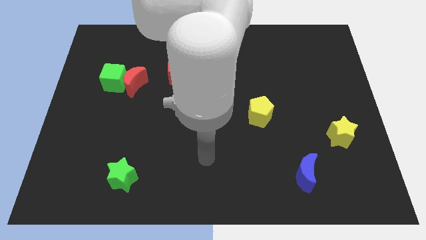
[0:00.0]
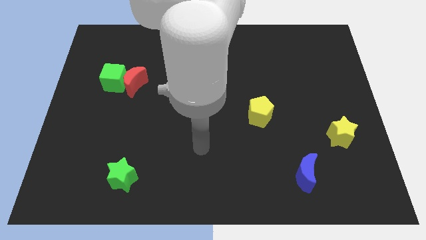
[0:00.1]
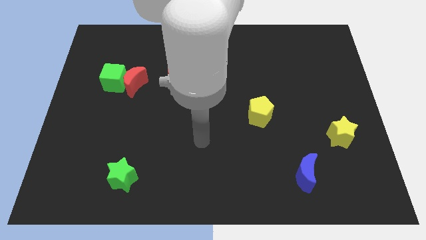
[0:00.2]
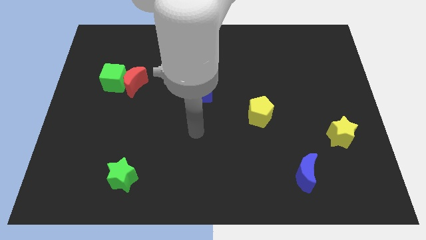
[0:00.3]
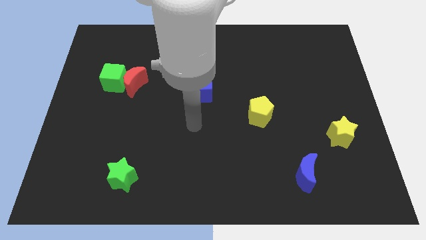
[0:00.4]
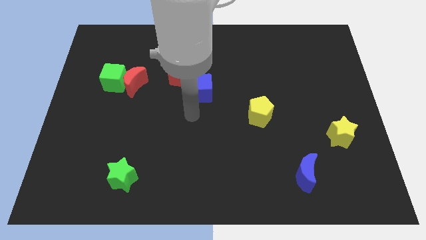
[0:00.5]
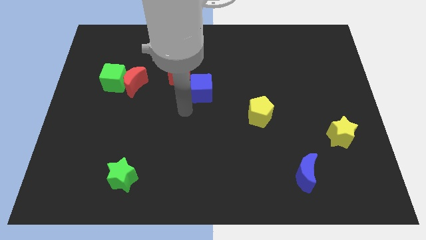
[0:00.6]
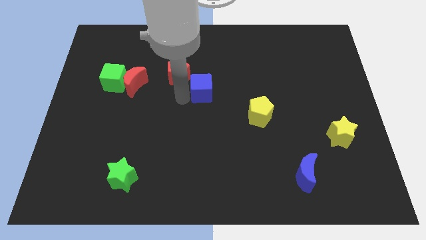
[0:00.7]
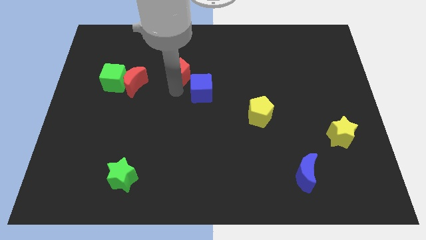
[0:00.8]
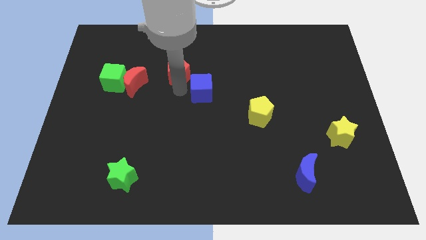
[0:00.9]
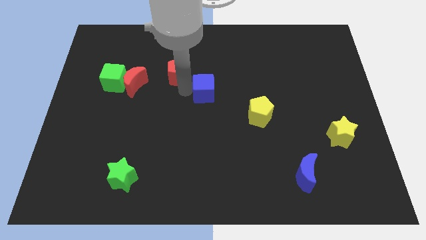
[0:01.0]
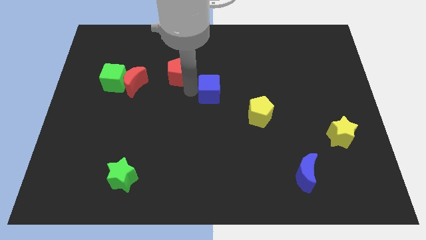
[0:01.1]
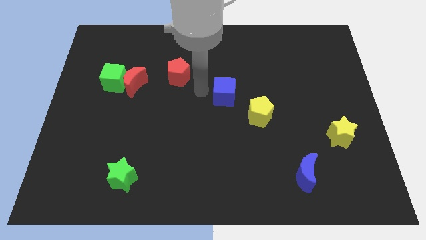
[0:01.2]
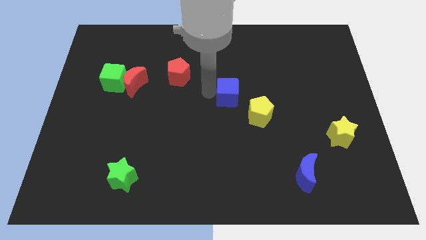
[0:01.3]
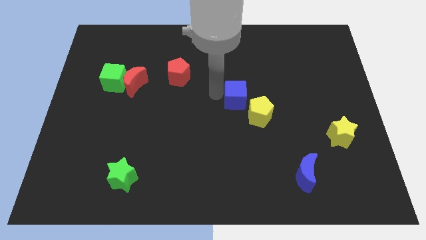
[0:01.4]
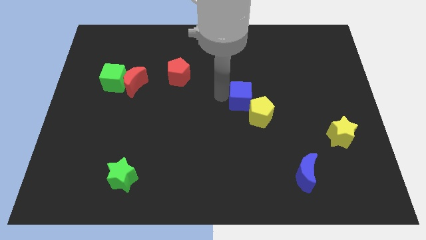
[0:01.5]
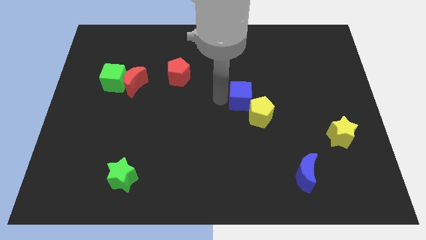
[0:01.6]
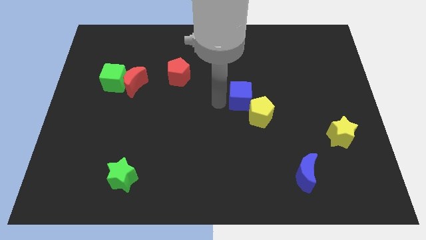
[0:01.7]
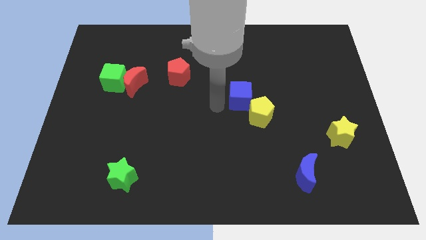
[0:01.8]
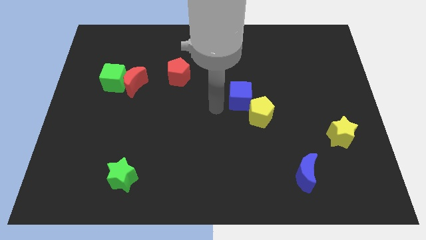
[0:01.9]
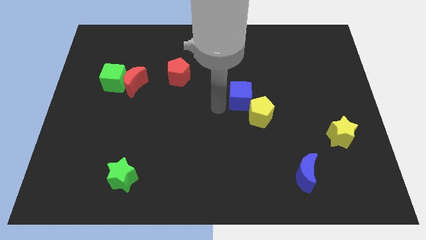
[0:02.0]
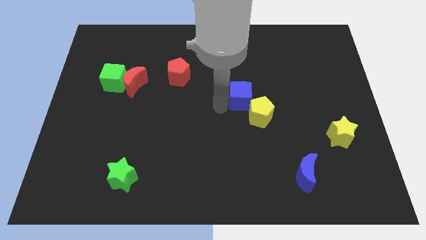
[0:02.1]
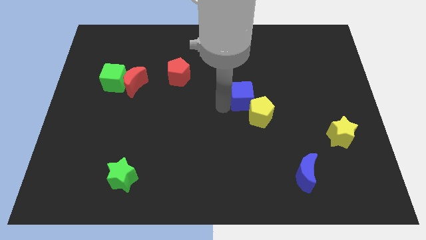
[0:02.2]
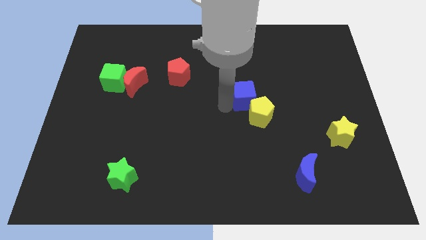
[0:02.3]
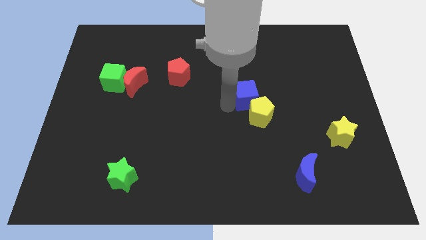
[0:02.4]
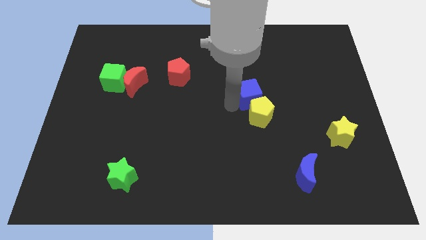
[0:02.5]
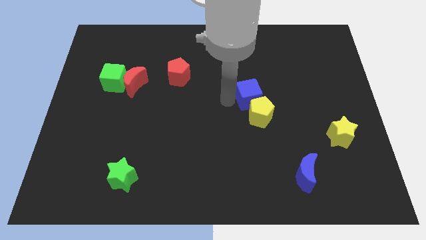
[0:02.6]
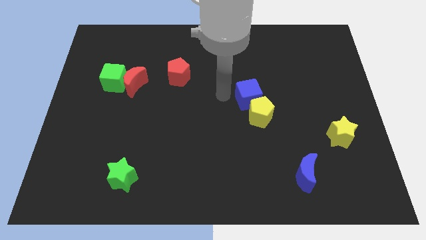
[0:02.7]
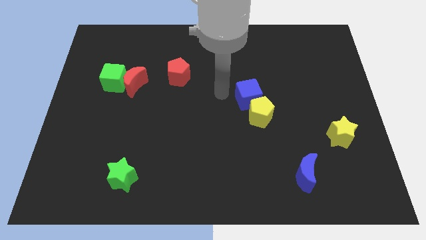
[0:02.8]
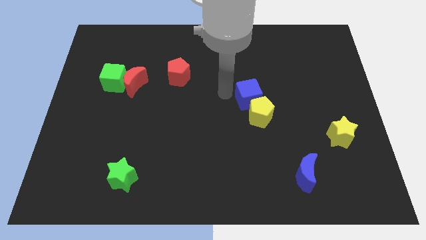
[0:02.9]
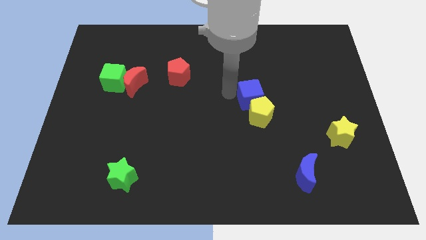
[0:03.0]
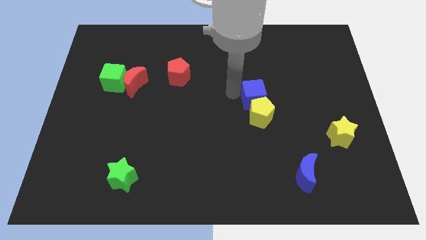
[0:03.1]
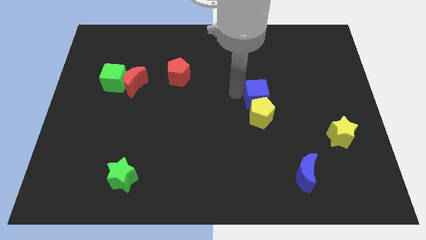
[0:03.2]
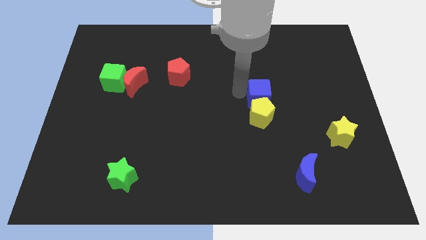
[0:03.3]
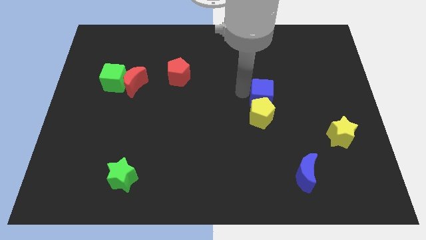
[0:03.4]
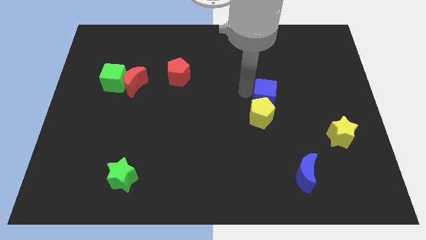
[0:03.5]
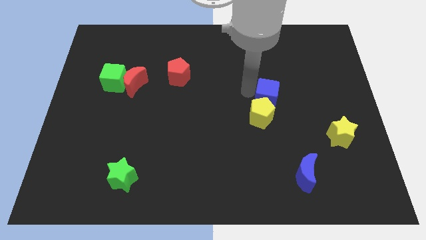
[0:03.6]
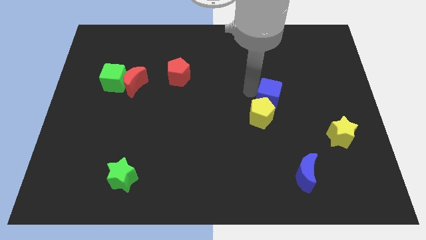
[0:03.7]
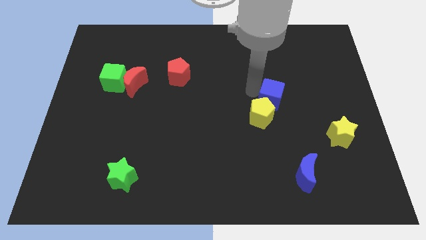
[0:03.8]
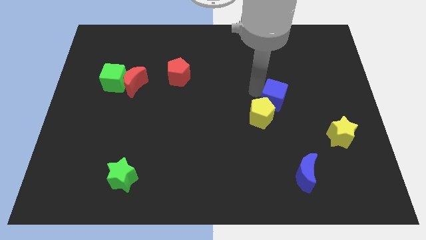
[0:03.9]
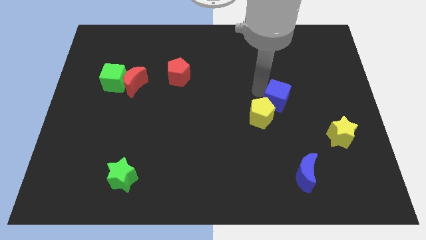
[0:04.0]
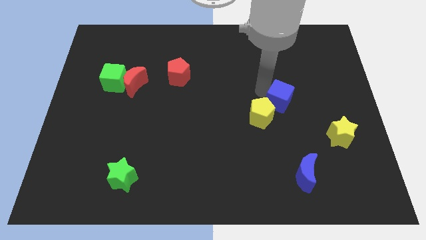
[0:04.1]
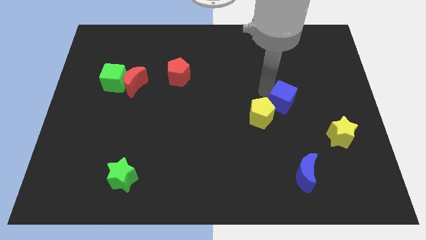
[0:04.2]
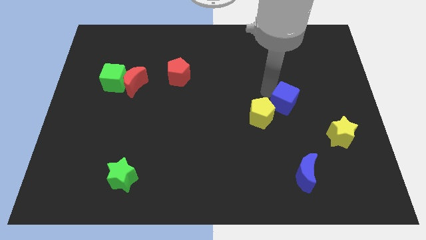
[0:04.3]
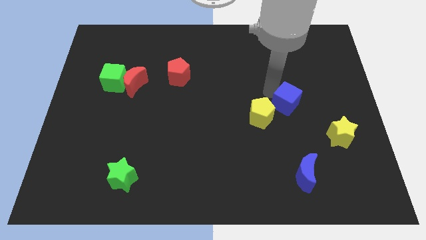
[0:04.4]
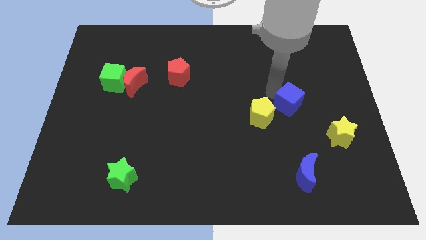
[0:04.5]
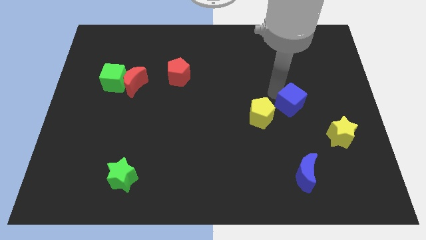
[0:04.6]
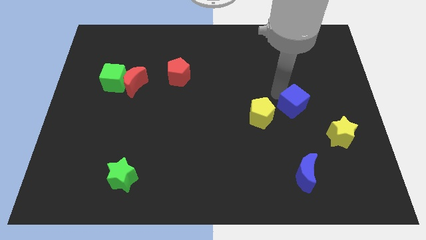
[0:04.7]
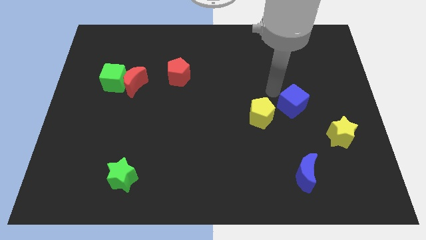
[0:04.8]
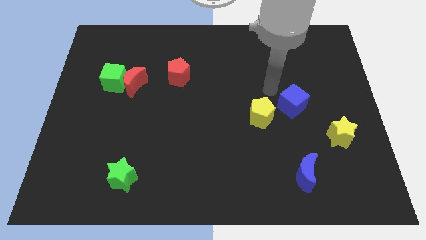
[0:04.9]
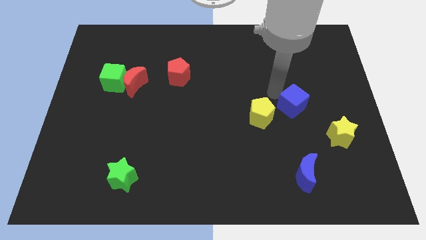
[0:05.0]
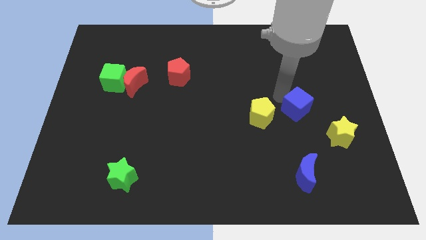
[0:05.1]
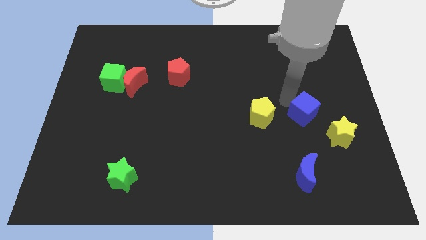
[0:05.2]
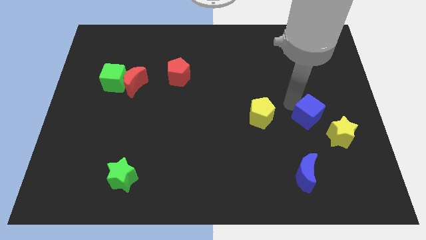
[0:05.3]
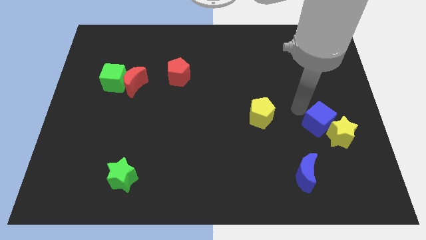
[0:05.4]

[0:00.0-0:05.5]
push the blue cube to the yellow star

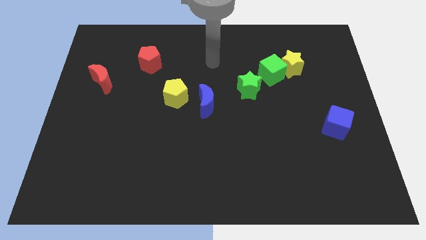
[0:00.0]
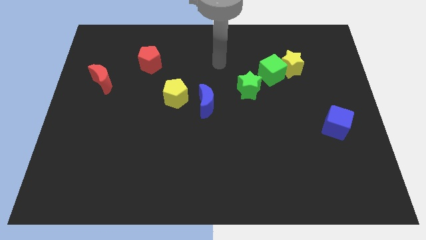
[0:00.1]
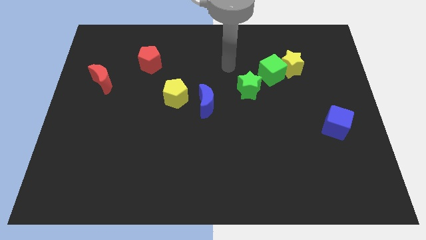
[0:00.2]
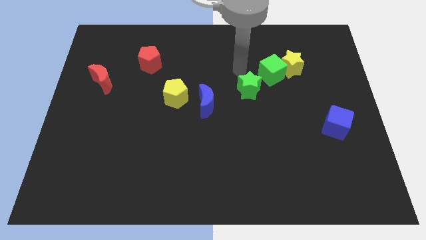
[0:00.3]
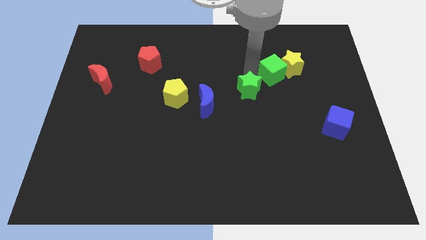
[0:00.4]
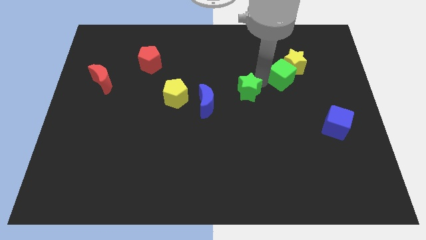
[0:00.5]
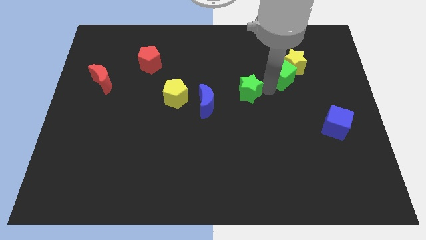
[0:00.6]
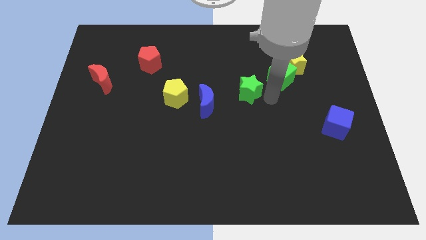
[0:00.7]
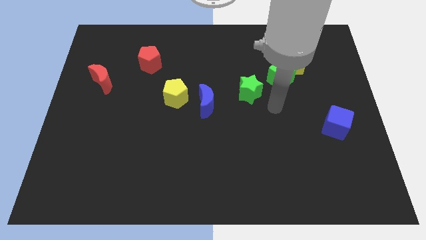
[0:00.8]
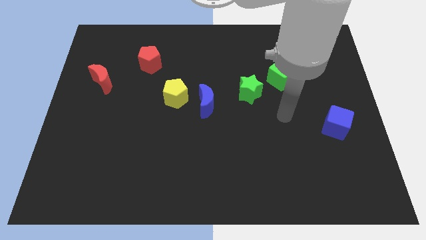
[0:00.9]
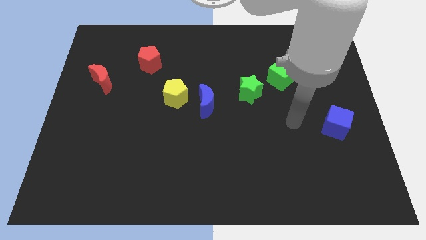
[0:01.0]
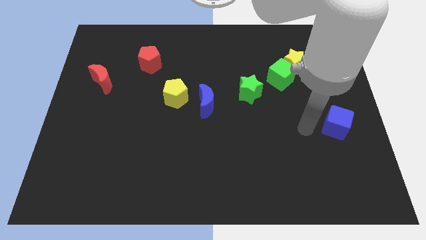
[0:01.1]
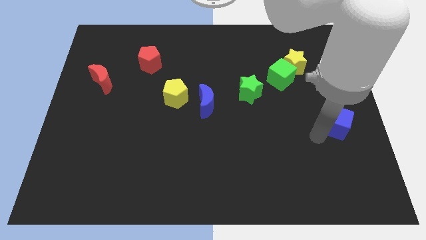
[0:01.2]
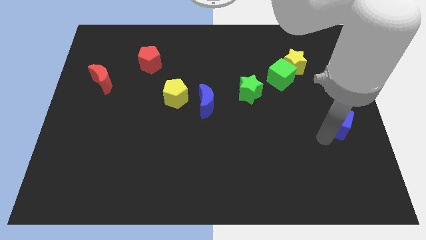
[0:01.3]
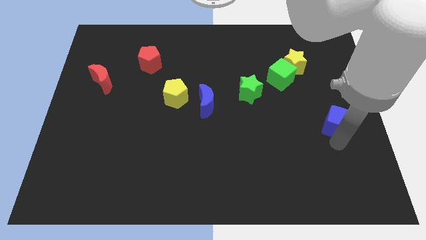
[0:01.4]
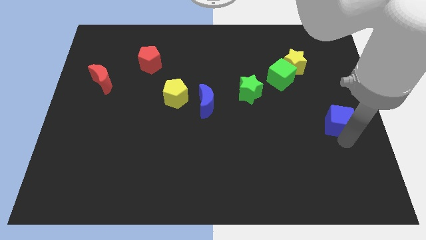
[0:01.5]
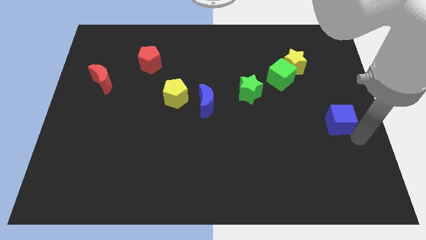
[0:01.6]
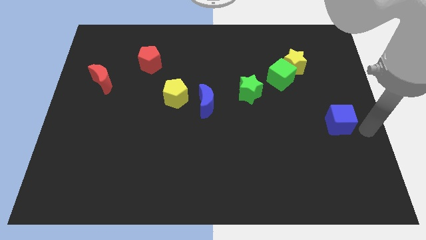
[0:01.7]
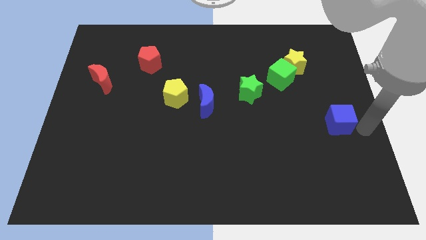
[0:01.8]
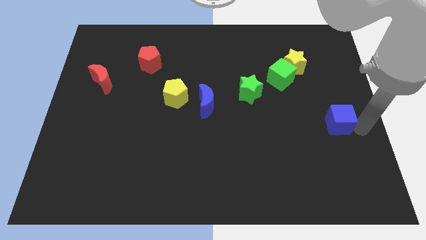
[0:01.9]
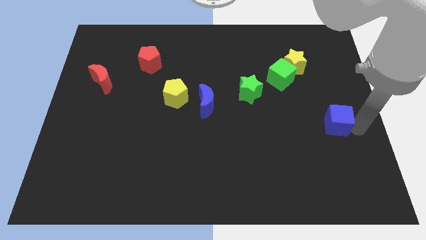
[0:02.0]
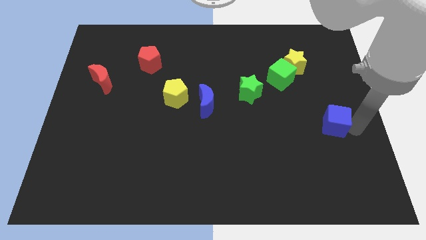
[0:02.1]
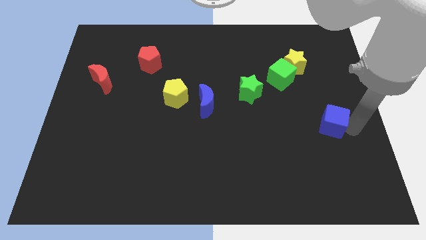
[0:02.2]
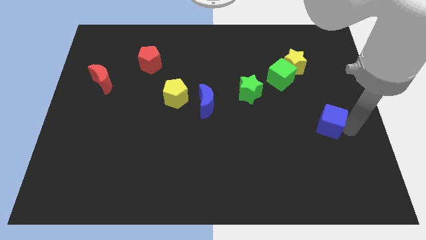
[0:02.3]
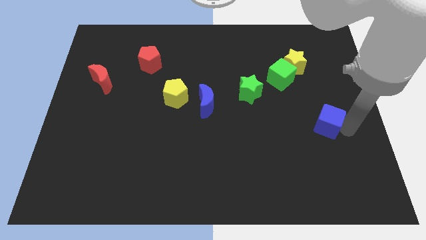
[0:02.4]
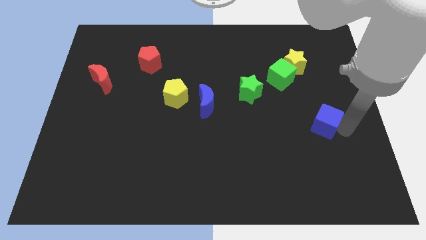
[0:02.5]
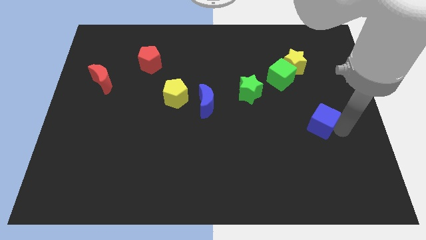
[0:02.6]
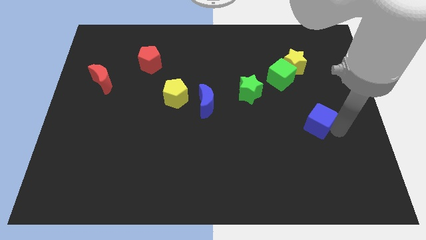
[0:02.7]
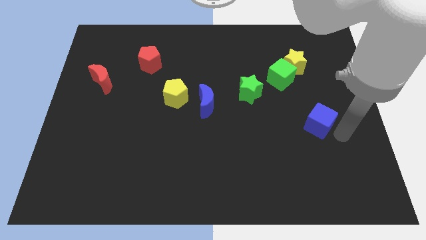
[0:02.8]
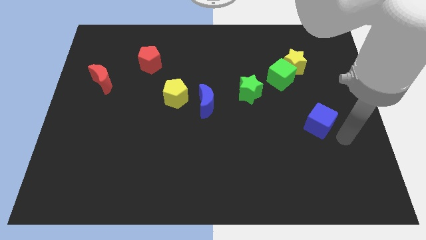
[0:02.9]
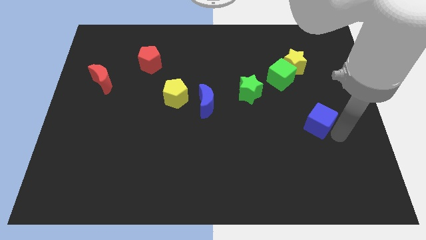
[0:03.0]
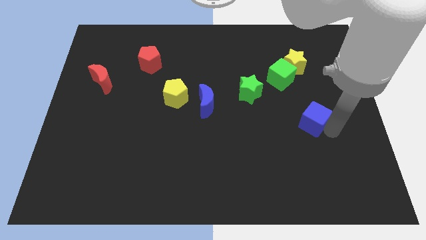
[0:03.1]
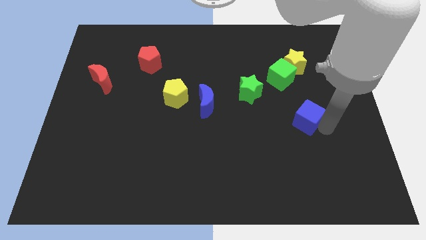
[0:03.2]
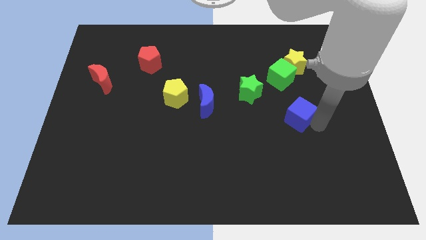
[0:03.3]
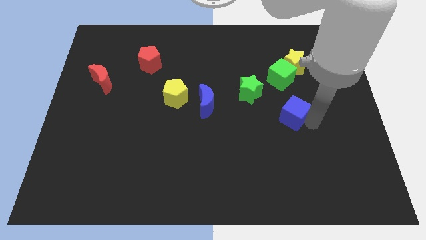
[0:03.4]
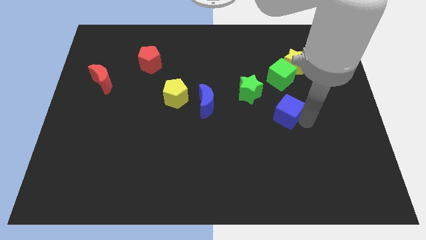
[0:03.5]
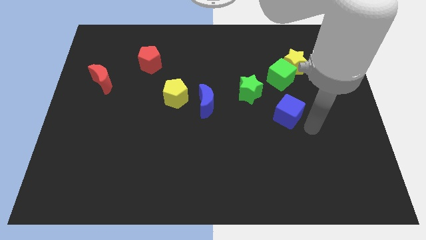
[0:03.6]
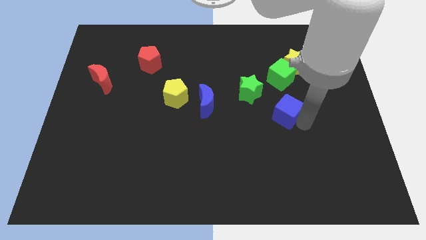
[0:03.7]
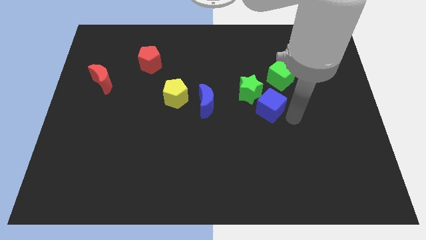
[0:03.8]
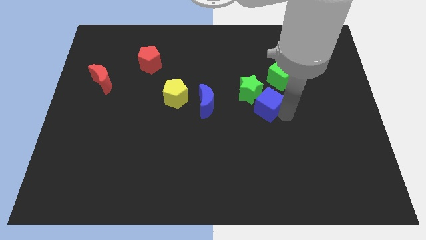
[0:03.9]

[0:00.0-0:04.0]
put the blue cube to the green star
